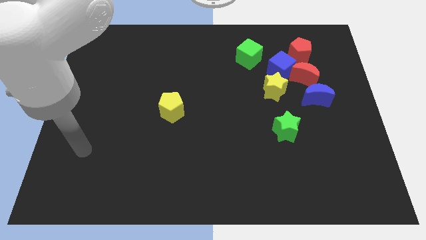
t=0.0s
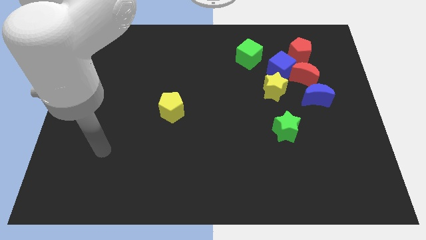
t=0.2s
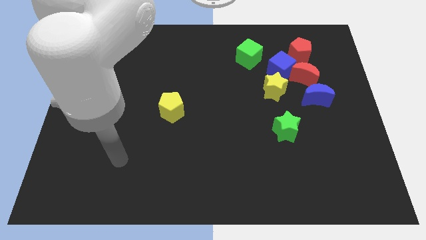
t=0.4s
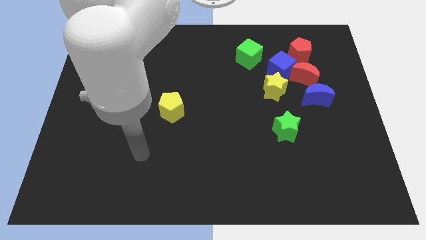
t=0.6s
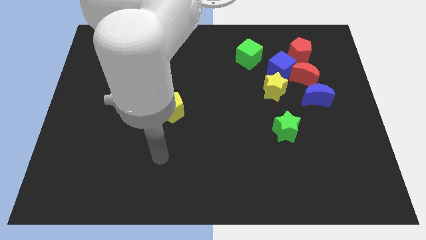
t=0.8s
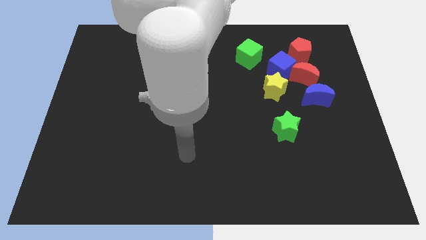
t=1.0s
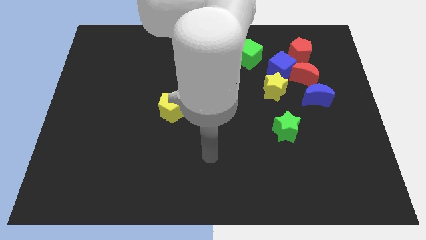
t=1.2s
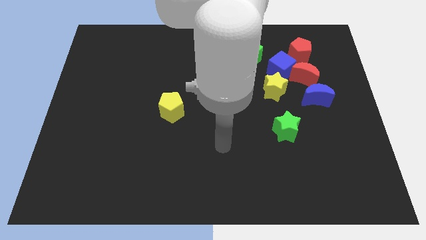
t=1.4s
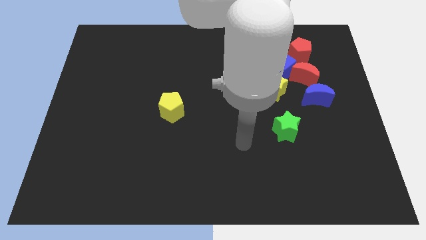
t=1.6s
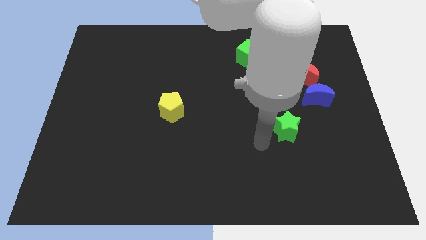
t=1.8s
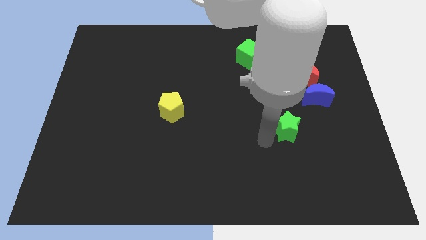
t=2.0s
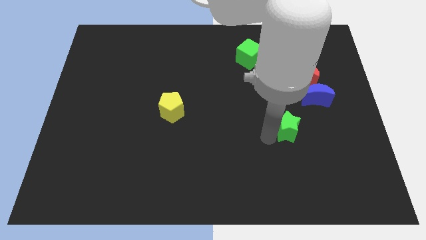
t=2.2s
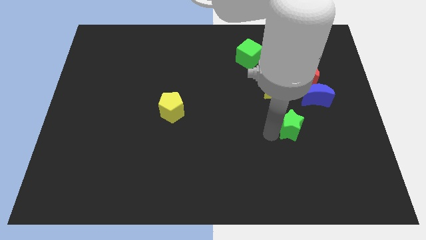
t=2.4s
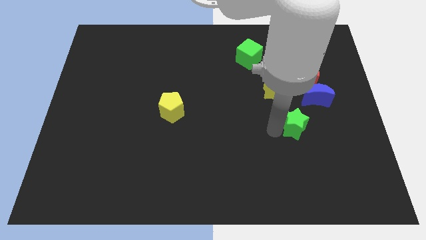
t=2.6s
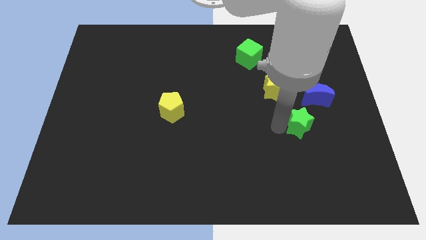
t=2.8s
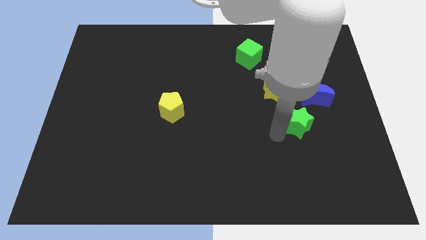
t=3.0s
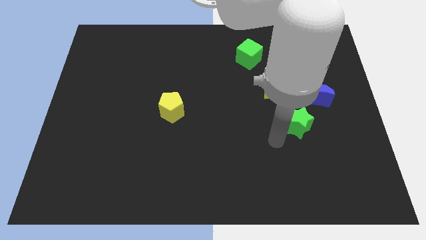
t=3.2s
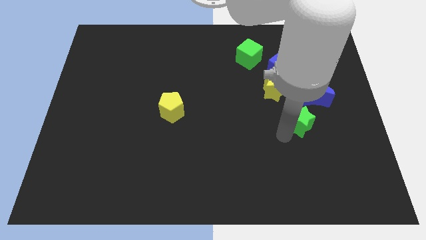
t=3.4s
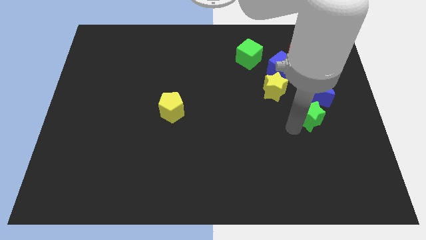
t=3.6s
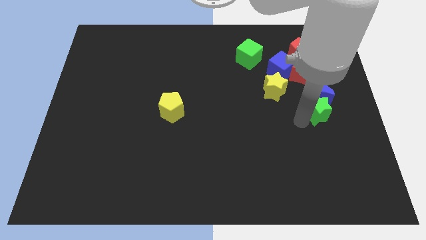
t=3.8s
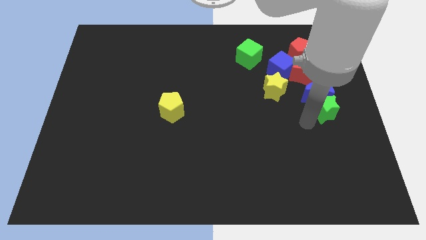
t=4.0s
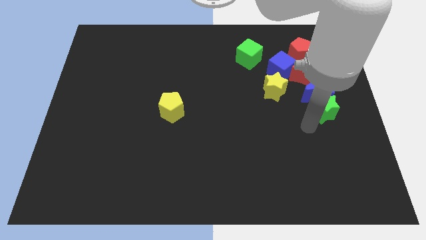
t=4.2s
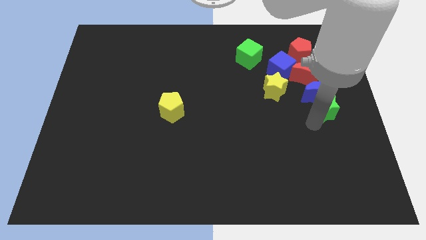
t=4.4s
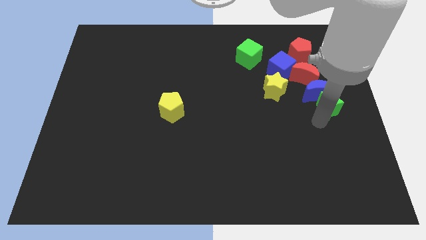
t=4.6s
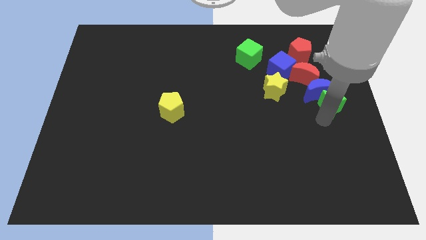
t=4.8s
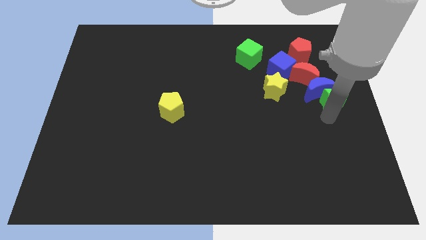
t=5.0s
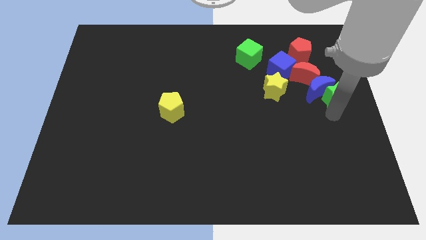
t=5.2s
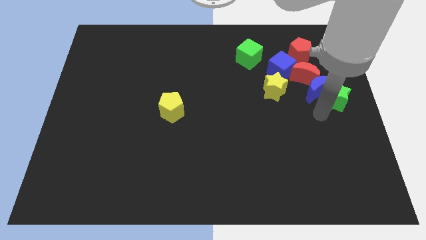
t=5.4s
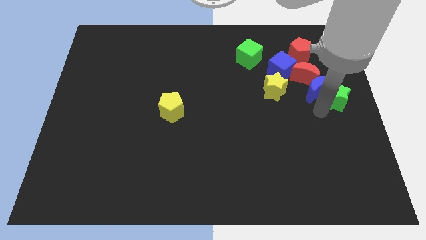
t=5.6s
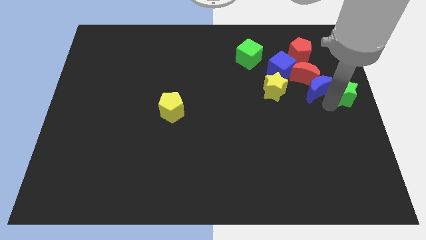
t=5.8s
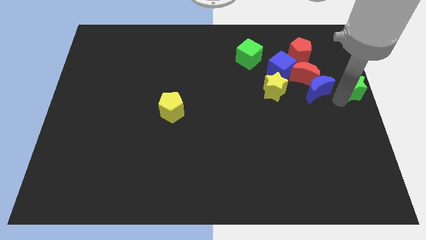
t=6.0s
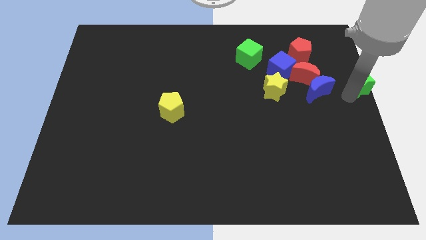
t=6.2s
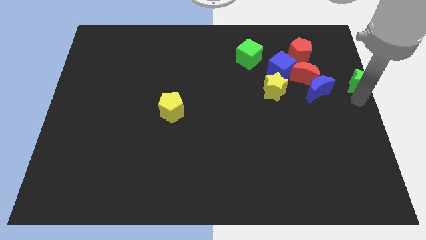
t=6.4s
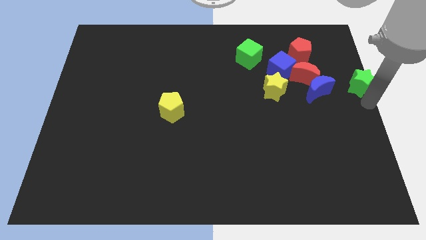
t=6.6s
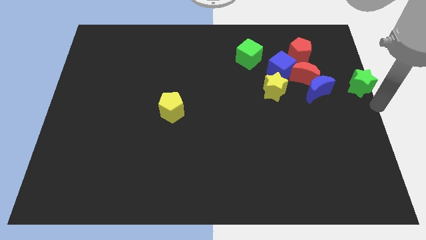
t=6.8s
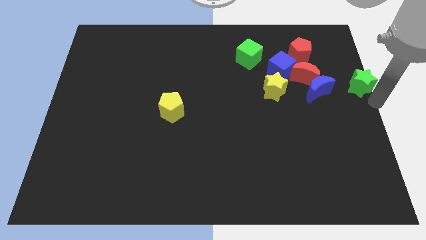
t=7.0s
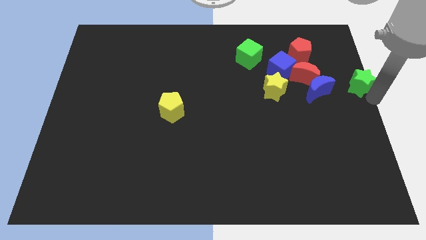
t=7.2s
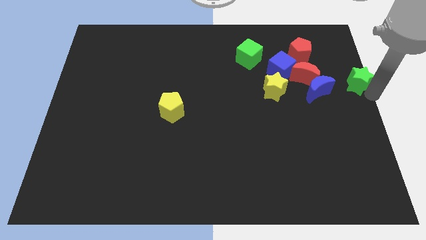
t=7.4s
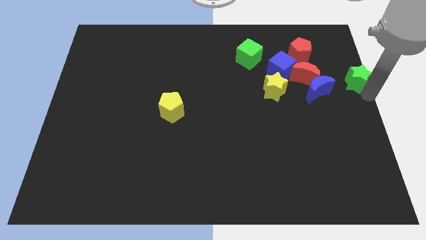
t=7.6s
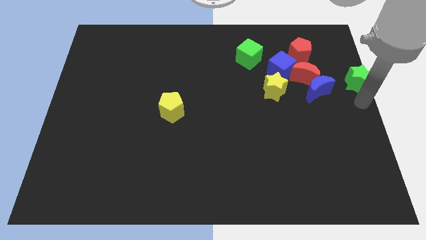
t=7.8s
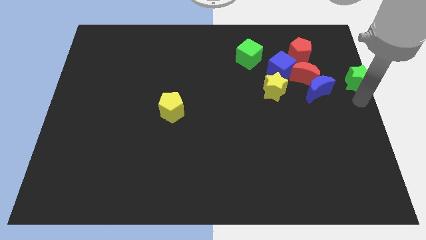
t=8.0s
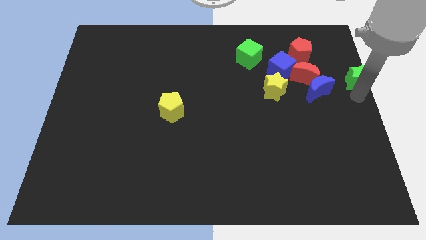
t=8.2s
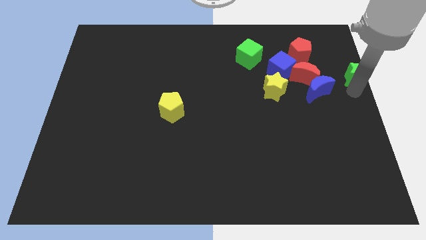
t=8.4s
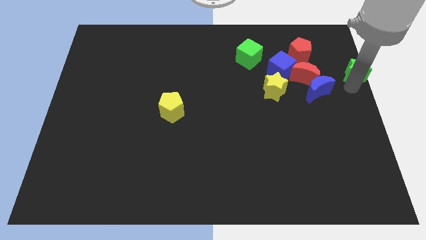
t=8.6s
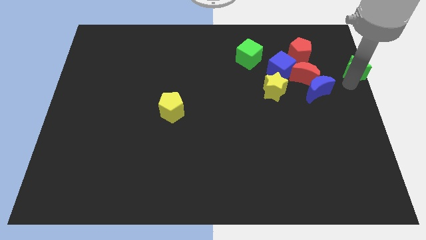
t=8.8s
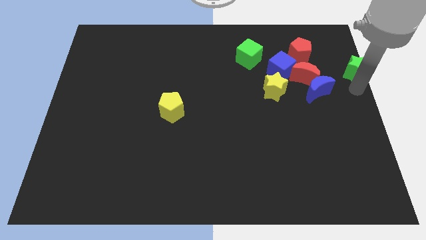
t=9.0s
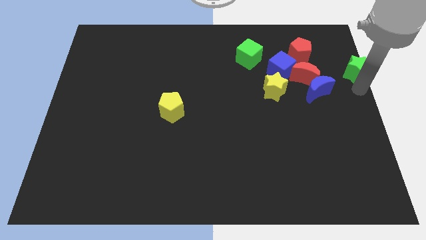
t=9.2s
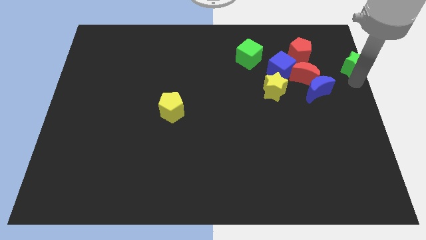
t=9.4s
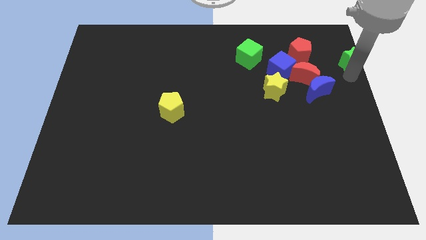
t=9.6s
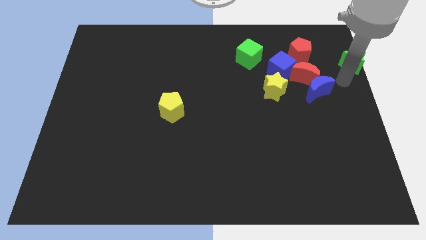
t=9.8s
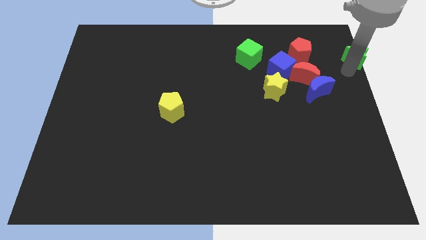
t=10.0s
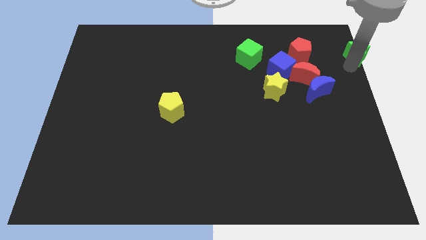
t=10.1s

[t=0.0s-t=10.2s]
move the green star to the top right

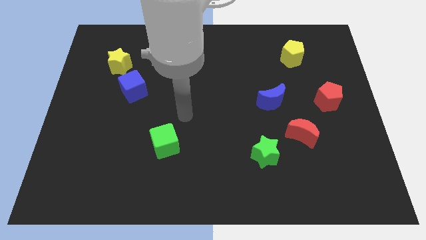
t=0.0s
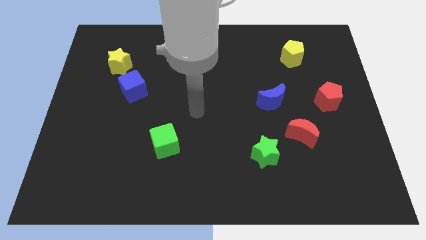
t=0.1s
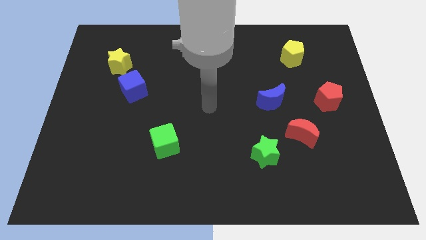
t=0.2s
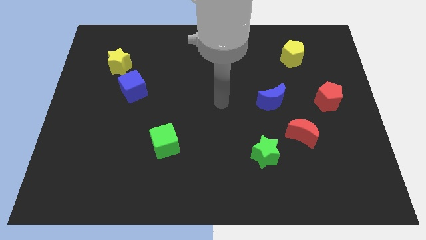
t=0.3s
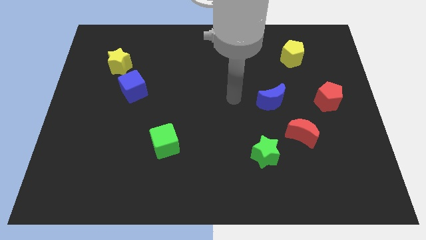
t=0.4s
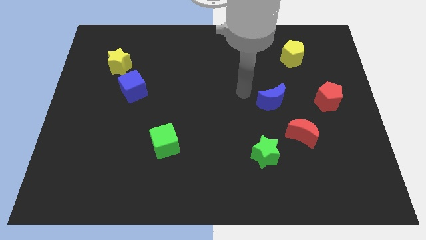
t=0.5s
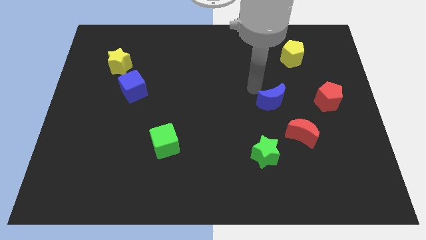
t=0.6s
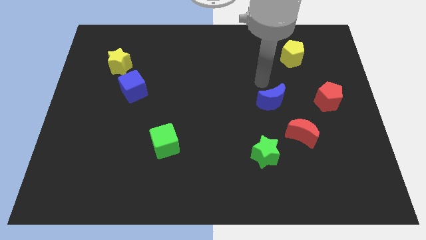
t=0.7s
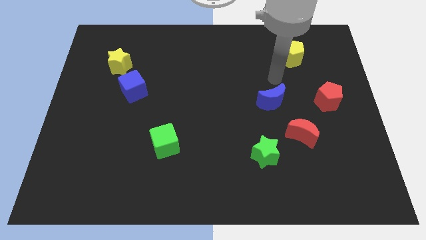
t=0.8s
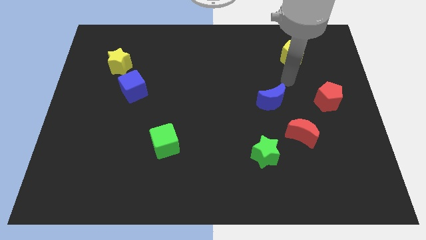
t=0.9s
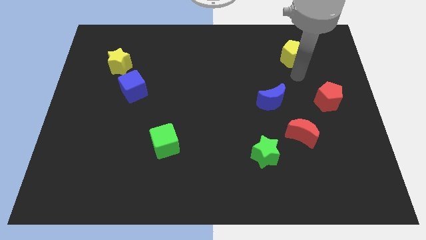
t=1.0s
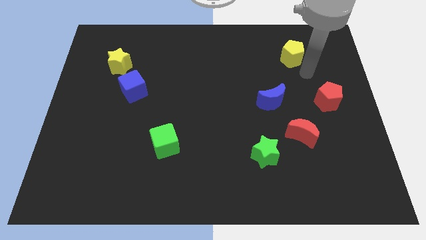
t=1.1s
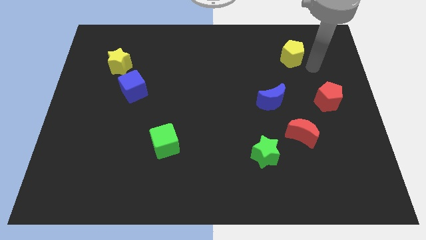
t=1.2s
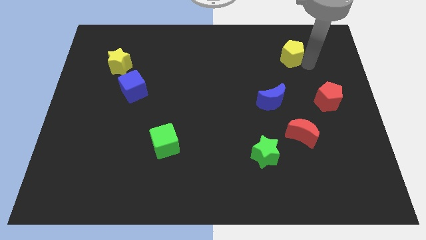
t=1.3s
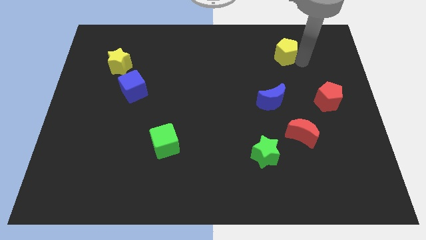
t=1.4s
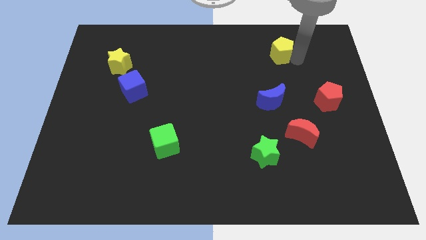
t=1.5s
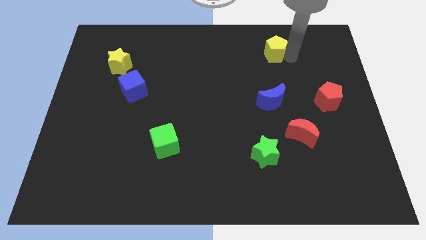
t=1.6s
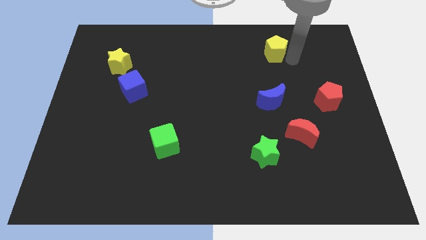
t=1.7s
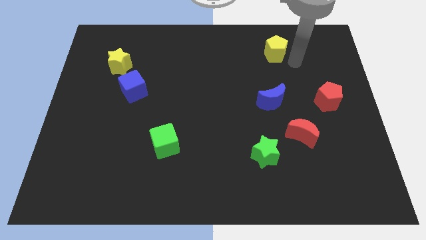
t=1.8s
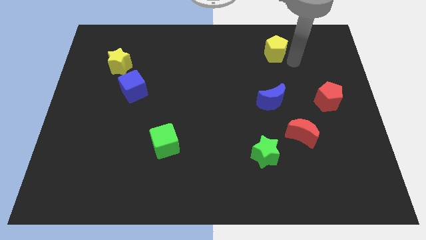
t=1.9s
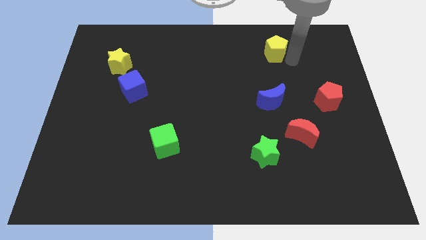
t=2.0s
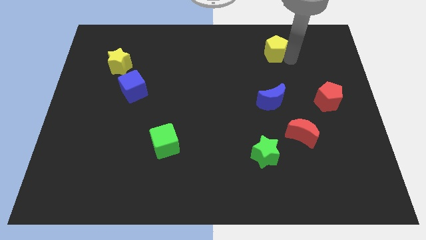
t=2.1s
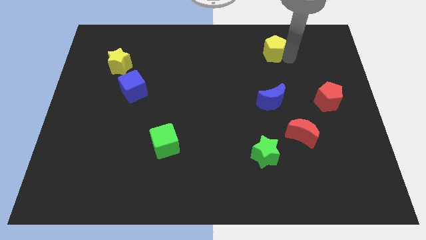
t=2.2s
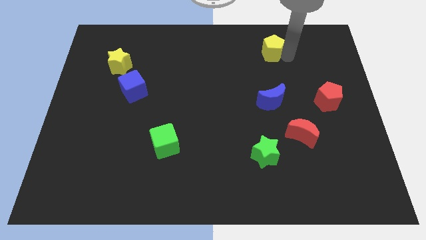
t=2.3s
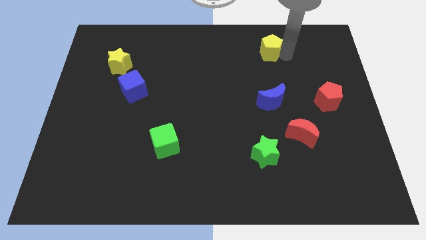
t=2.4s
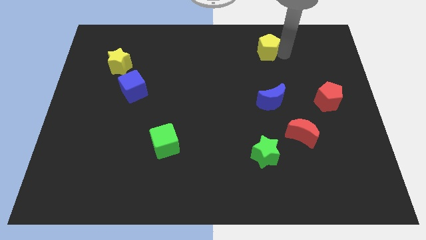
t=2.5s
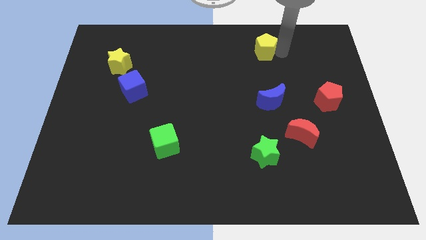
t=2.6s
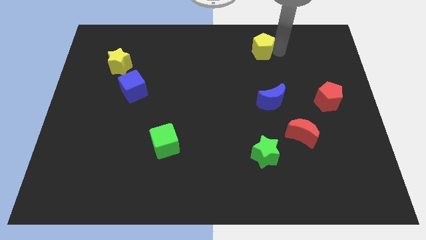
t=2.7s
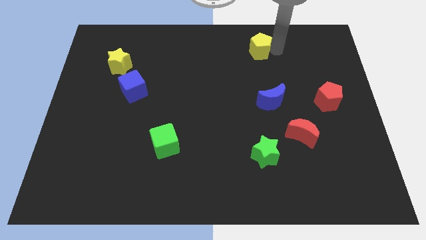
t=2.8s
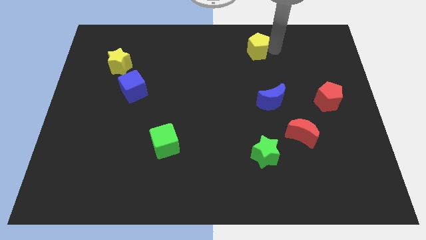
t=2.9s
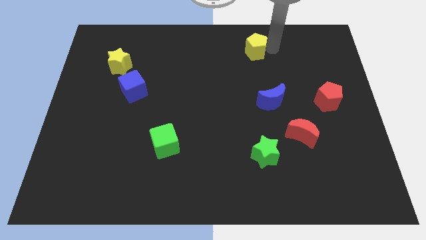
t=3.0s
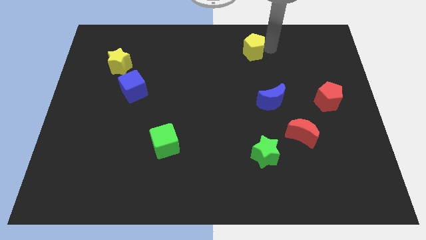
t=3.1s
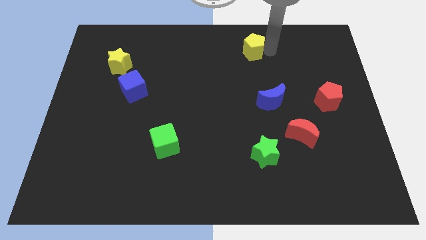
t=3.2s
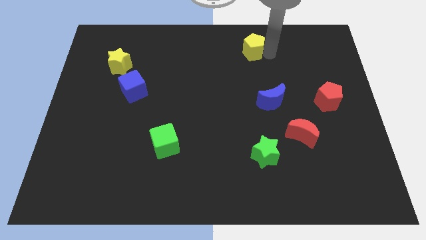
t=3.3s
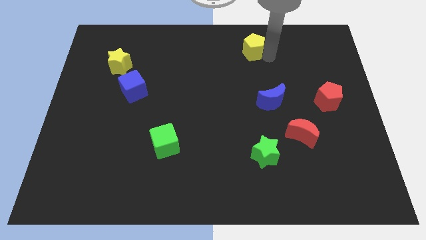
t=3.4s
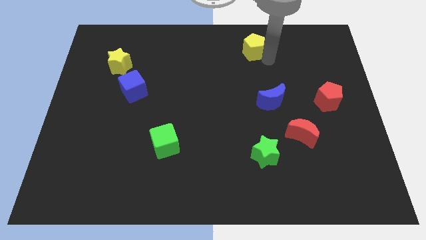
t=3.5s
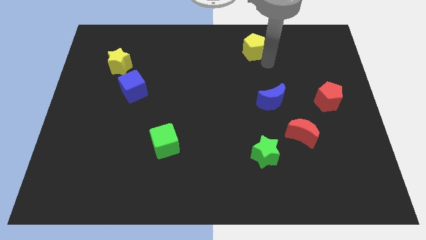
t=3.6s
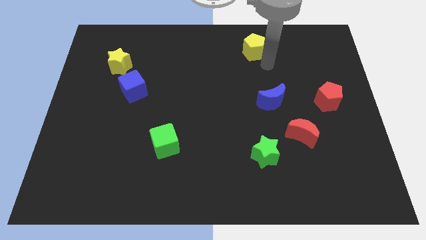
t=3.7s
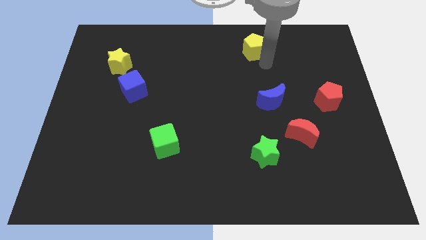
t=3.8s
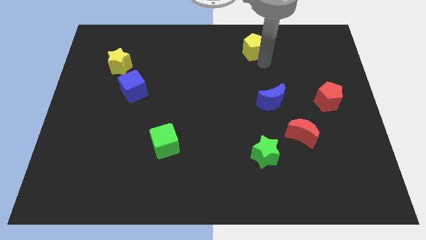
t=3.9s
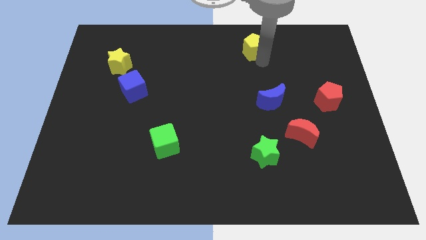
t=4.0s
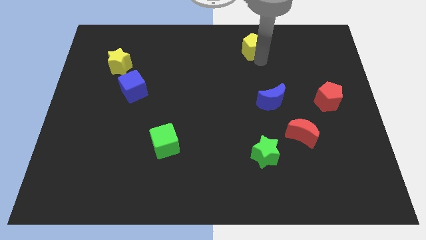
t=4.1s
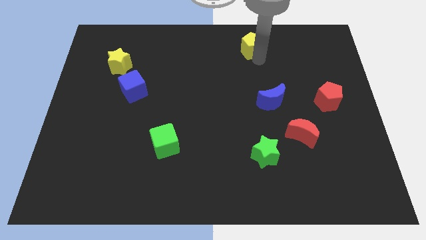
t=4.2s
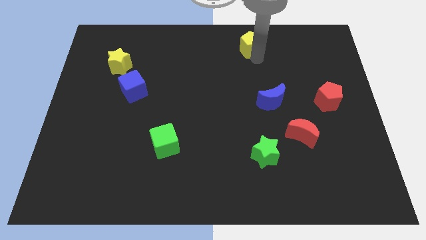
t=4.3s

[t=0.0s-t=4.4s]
put the yellow pentagon to the top
